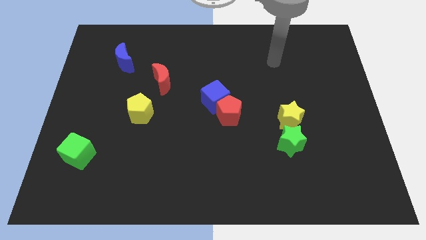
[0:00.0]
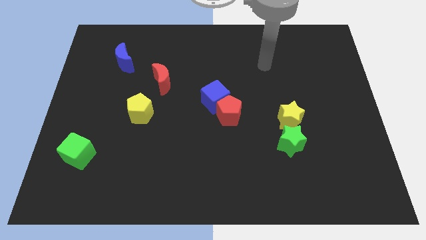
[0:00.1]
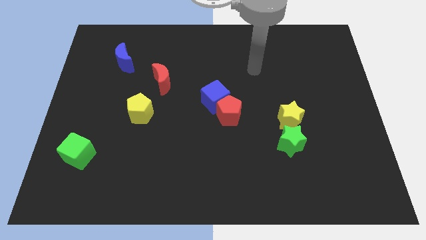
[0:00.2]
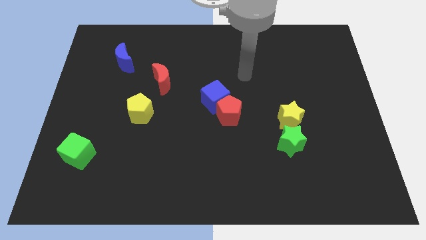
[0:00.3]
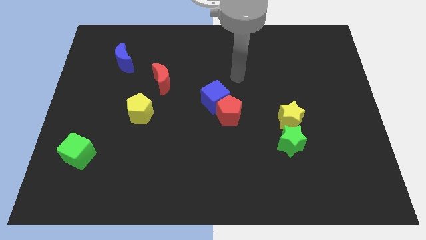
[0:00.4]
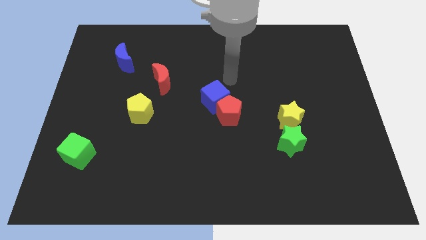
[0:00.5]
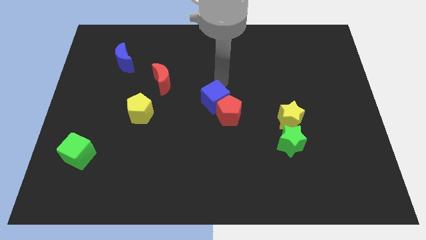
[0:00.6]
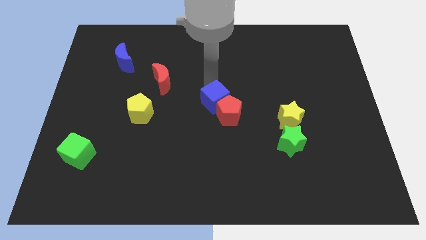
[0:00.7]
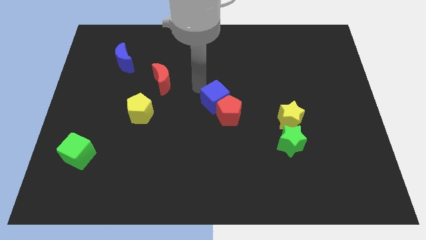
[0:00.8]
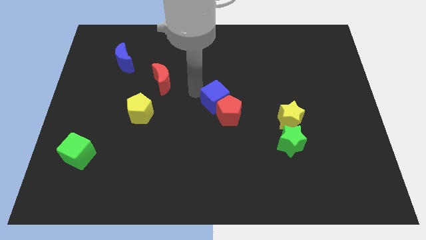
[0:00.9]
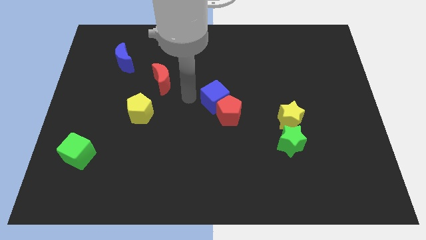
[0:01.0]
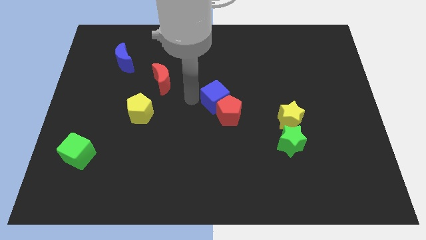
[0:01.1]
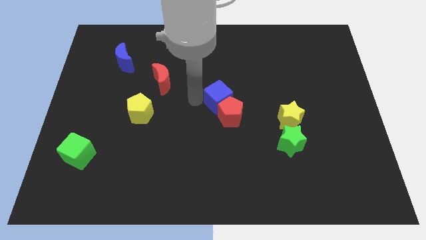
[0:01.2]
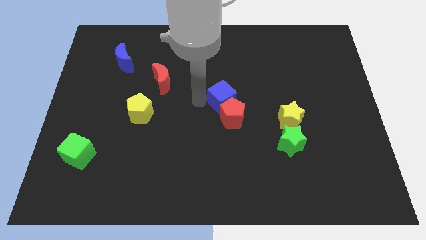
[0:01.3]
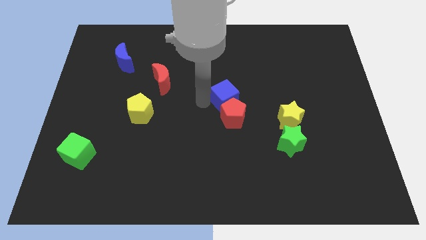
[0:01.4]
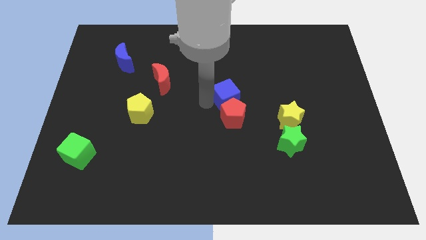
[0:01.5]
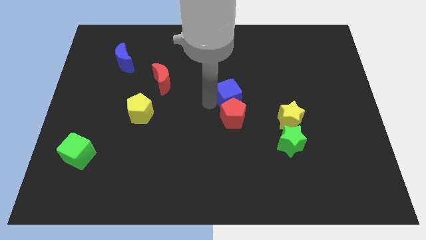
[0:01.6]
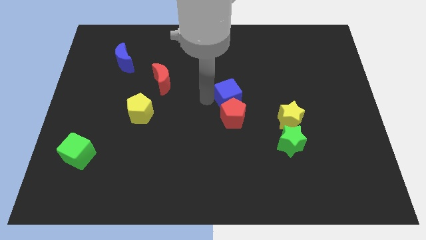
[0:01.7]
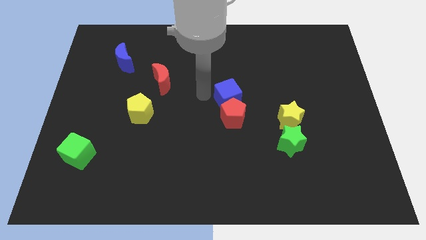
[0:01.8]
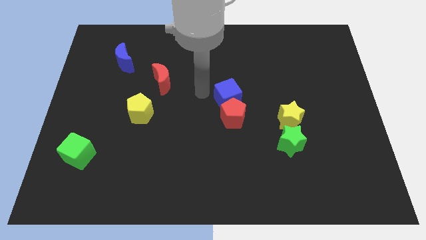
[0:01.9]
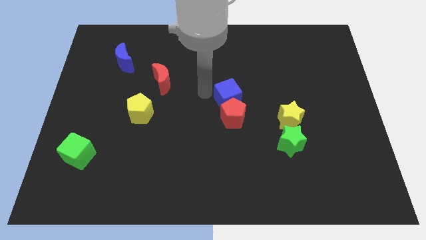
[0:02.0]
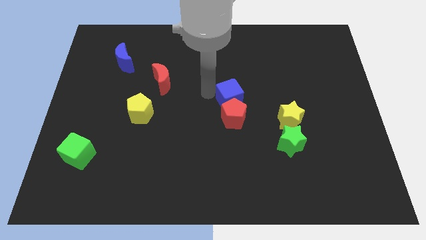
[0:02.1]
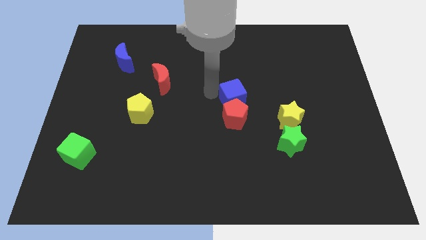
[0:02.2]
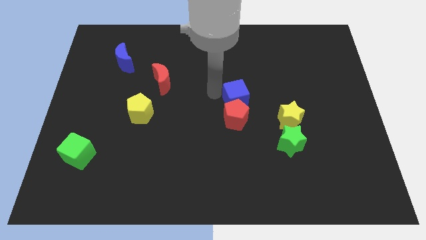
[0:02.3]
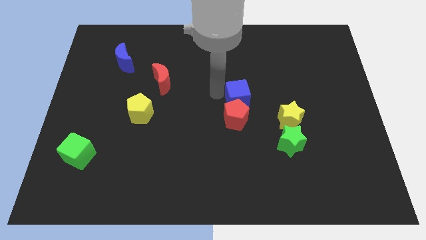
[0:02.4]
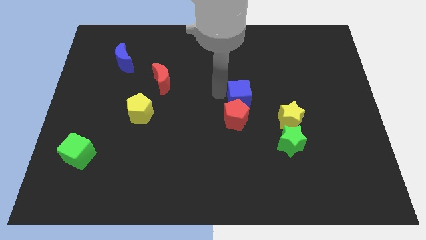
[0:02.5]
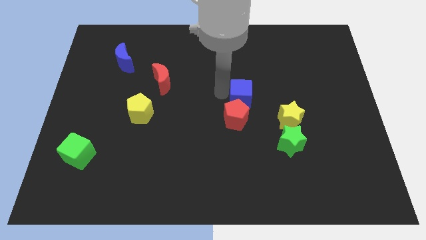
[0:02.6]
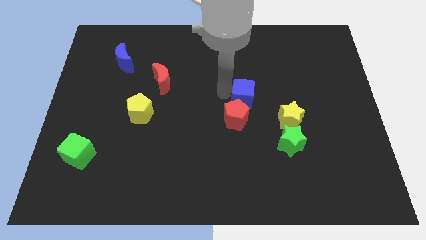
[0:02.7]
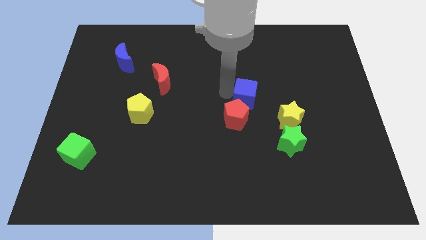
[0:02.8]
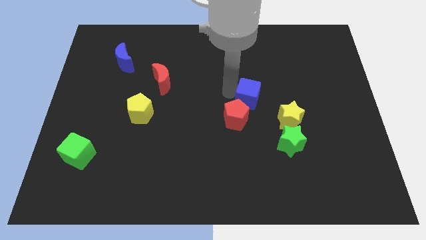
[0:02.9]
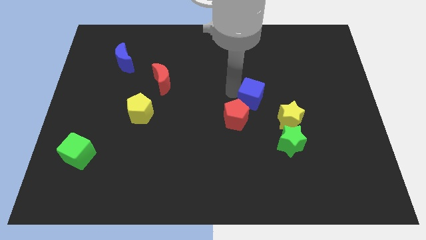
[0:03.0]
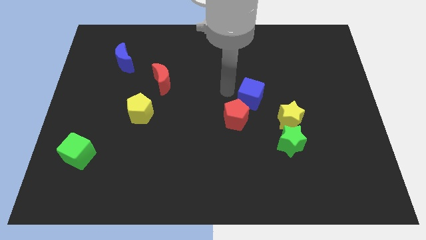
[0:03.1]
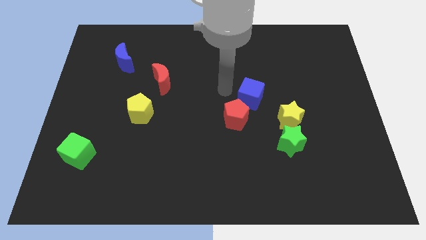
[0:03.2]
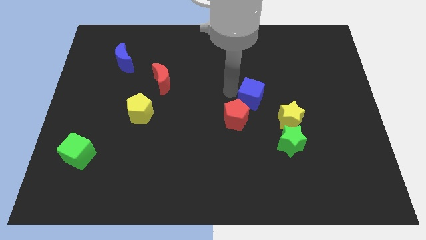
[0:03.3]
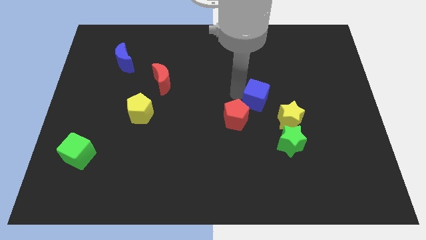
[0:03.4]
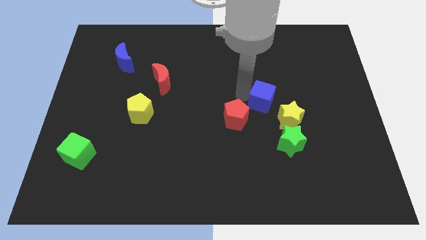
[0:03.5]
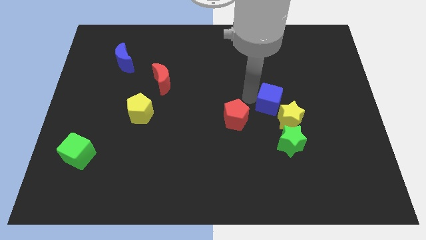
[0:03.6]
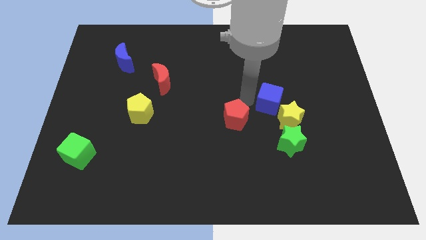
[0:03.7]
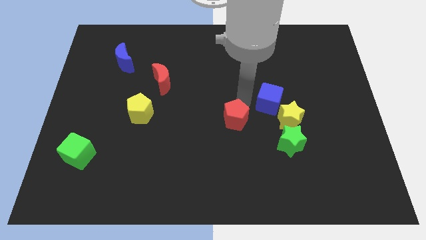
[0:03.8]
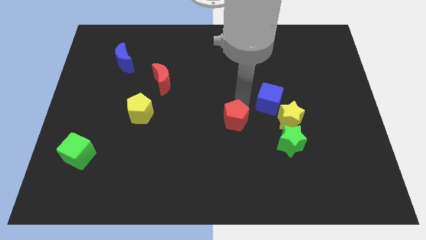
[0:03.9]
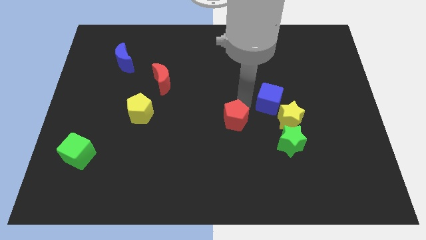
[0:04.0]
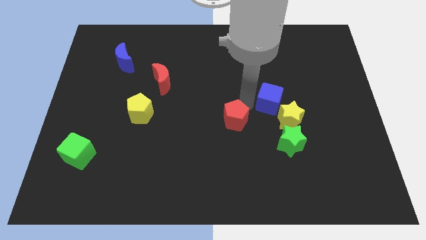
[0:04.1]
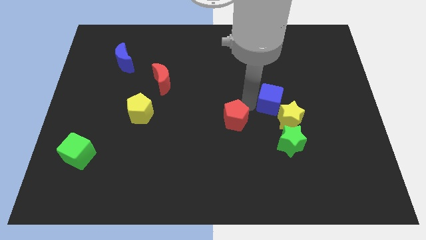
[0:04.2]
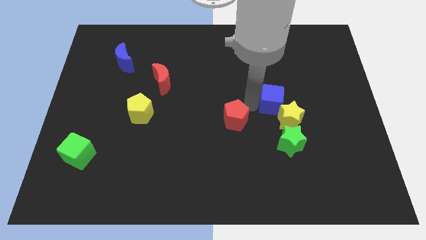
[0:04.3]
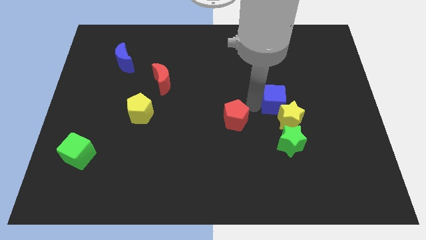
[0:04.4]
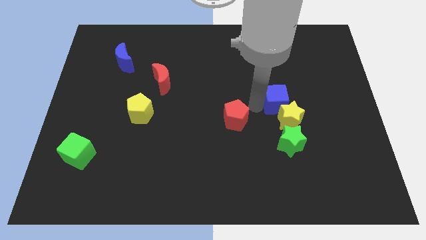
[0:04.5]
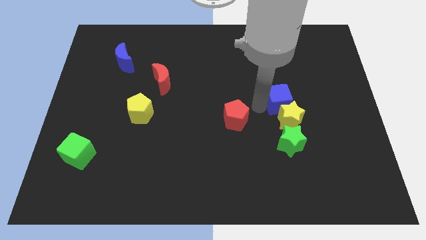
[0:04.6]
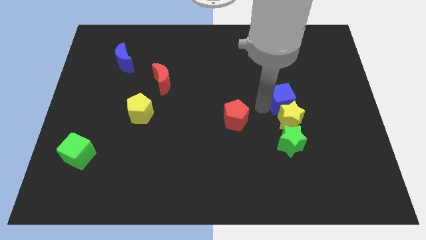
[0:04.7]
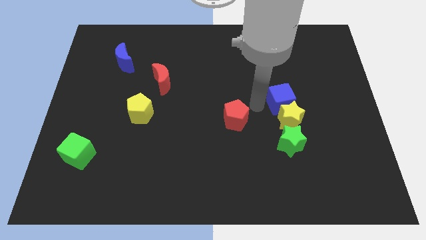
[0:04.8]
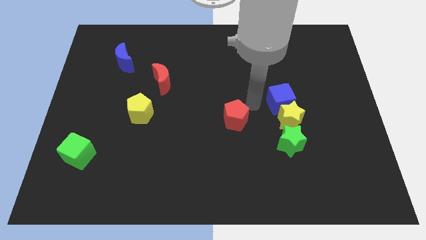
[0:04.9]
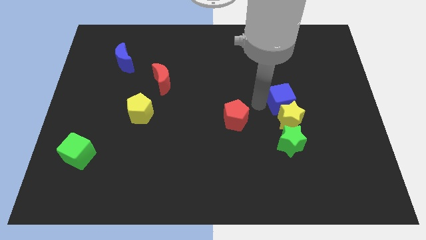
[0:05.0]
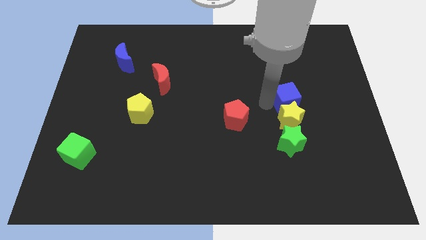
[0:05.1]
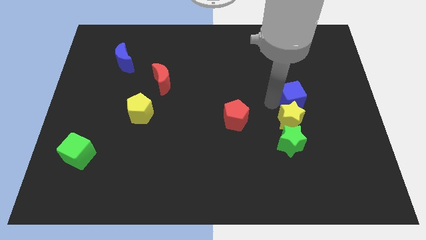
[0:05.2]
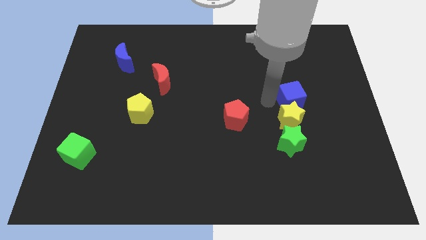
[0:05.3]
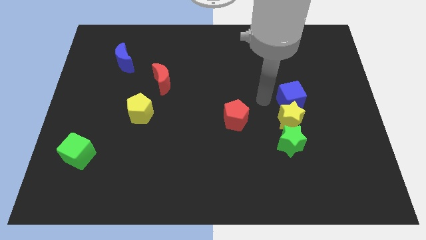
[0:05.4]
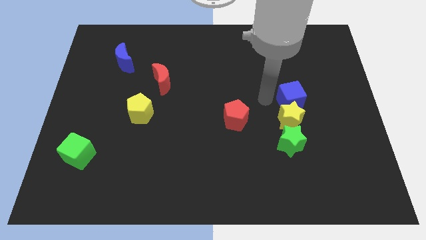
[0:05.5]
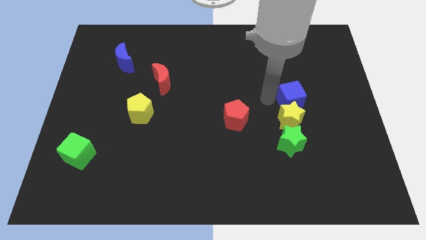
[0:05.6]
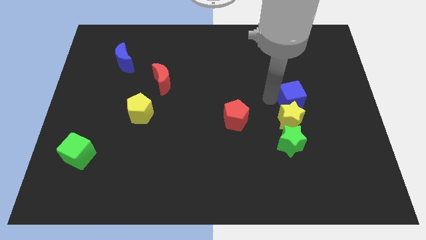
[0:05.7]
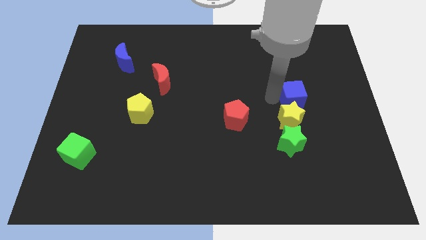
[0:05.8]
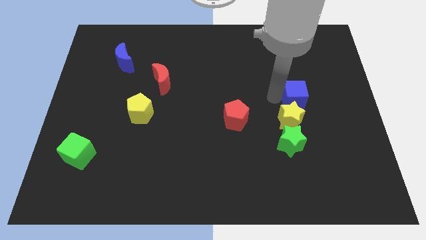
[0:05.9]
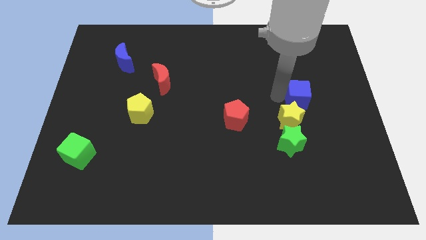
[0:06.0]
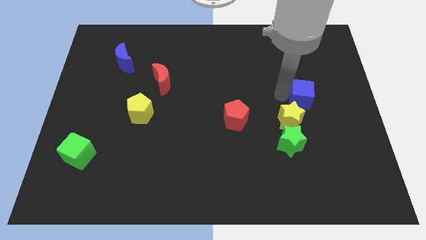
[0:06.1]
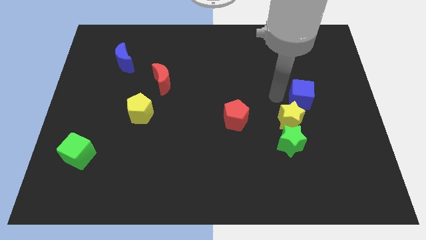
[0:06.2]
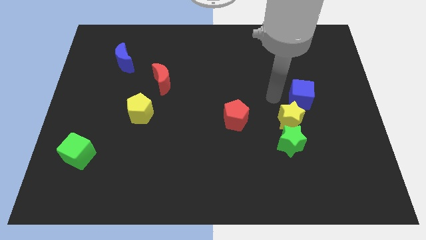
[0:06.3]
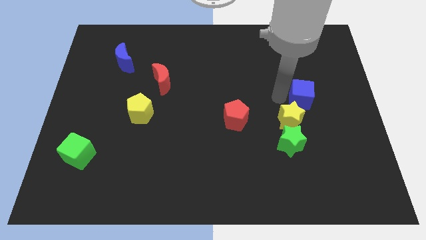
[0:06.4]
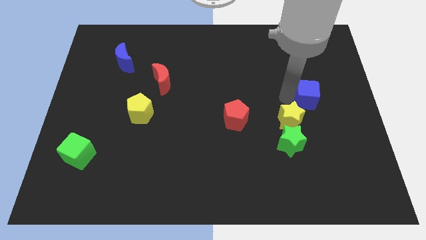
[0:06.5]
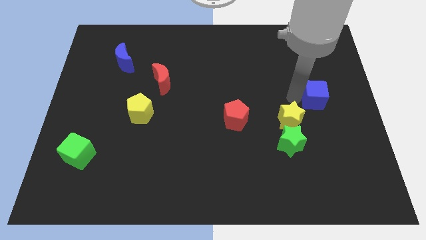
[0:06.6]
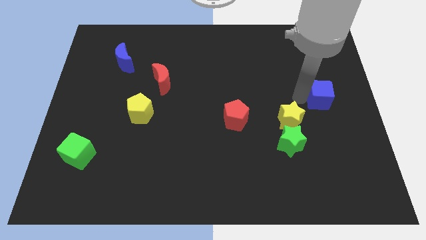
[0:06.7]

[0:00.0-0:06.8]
push the blue cube to the center right
